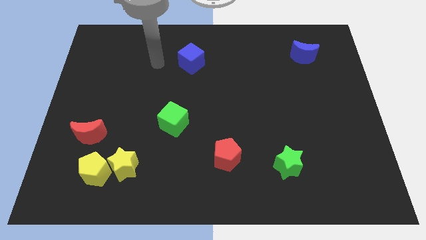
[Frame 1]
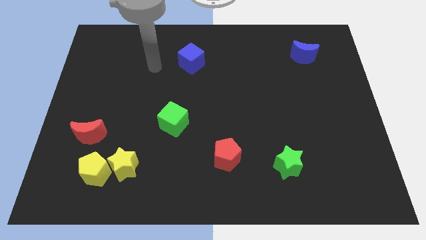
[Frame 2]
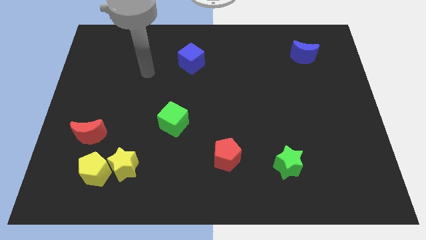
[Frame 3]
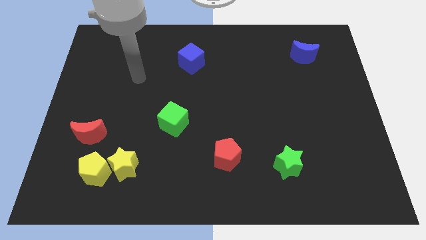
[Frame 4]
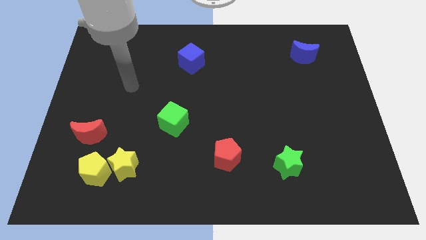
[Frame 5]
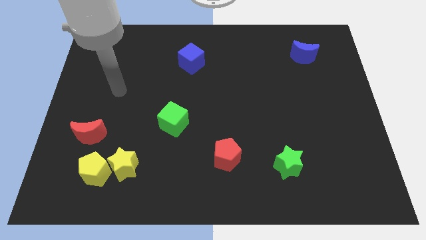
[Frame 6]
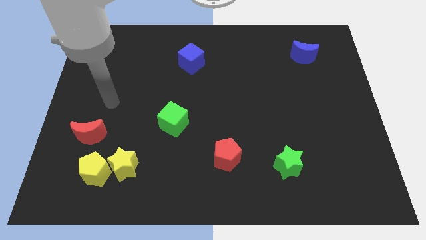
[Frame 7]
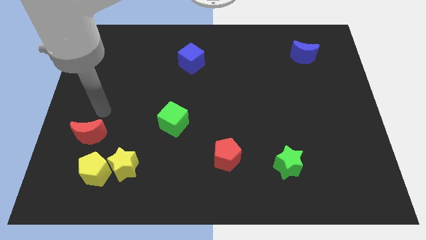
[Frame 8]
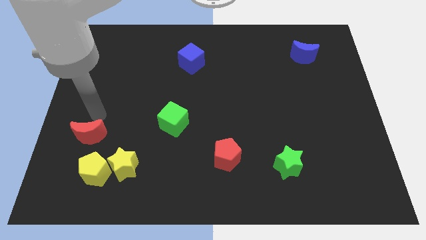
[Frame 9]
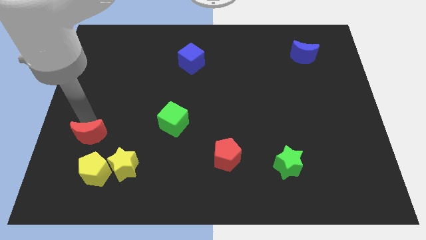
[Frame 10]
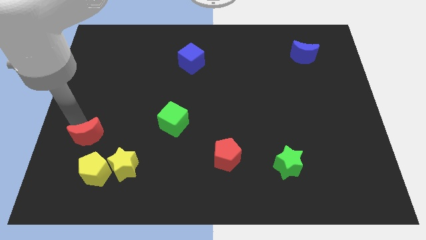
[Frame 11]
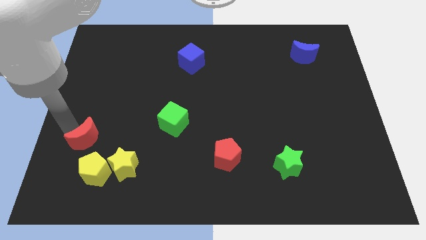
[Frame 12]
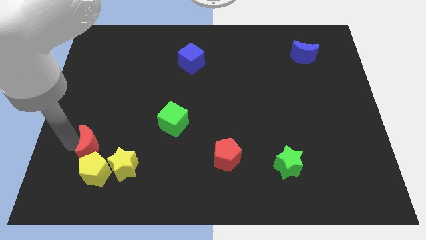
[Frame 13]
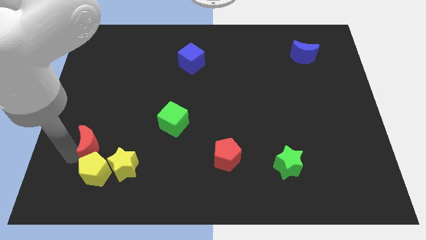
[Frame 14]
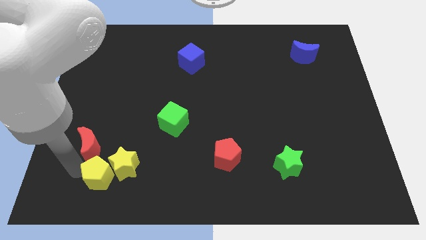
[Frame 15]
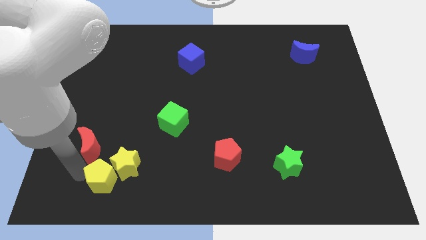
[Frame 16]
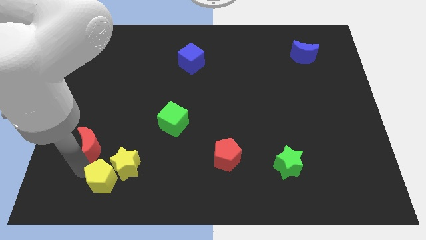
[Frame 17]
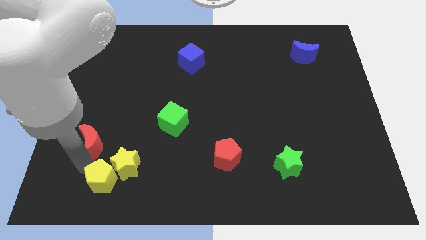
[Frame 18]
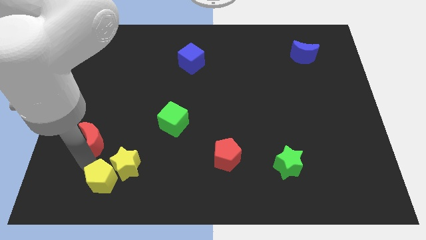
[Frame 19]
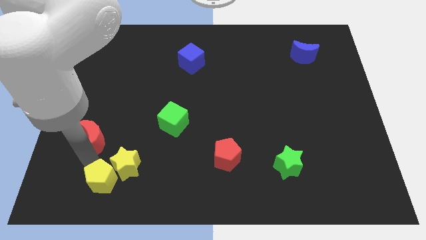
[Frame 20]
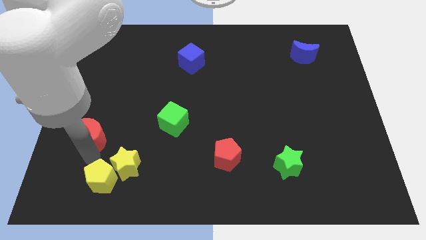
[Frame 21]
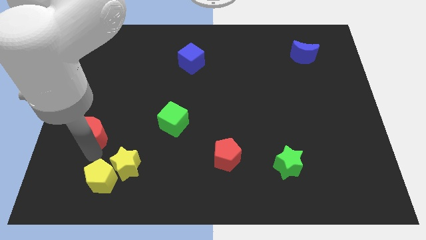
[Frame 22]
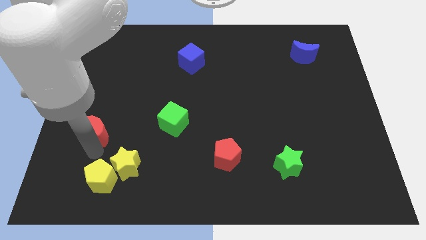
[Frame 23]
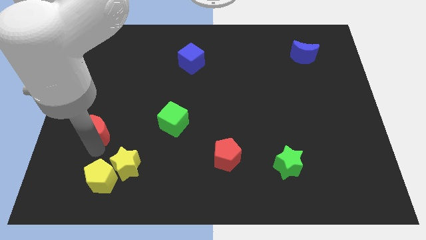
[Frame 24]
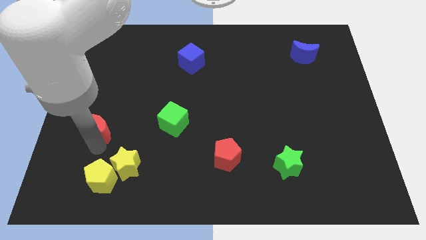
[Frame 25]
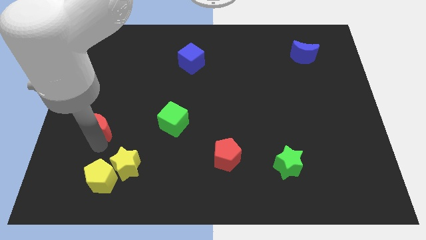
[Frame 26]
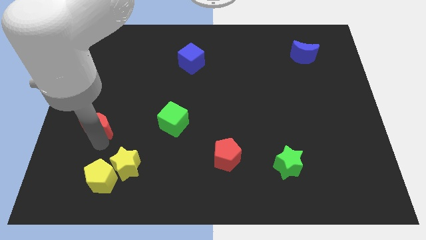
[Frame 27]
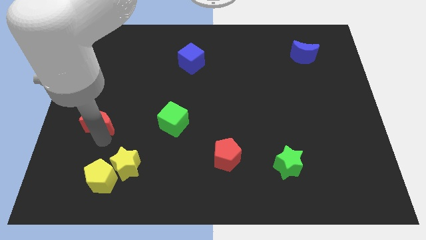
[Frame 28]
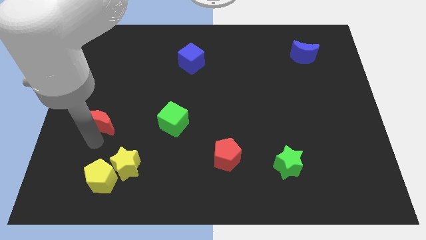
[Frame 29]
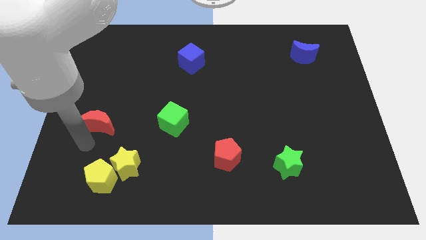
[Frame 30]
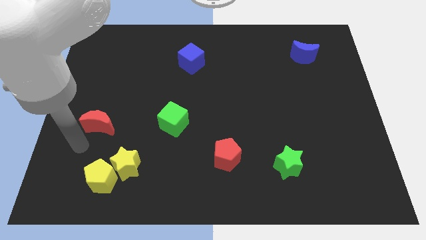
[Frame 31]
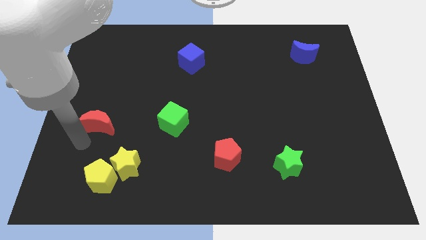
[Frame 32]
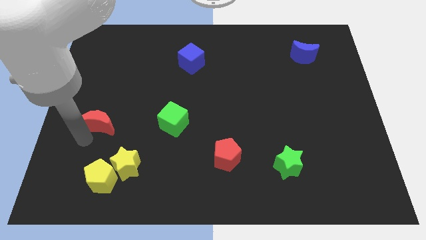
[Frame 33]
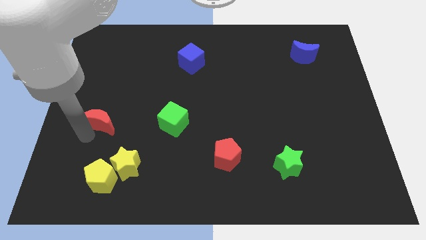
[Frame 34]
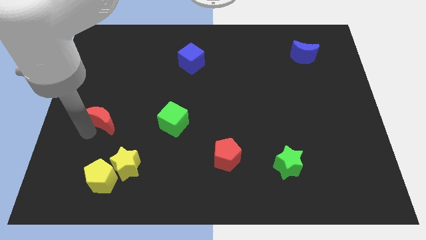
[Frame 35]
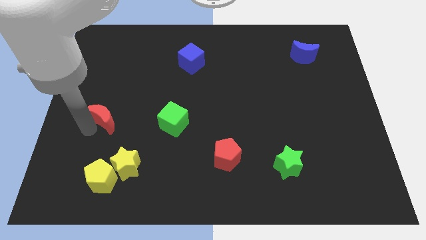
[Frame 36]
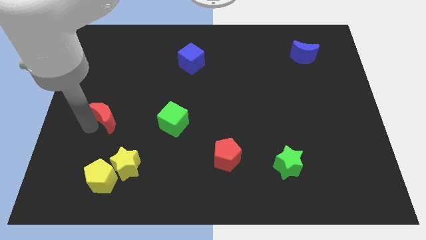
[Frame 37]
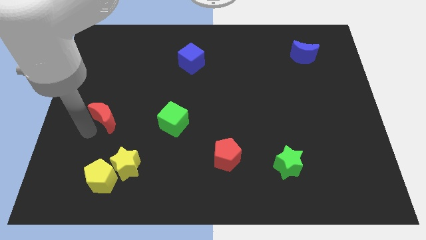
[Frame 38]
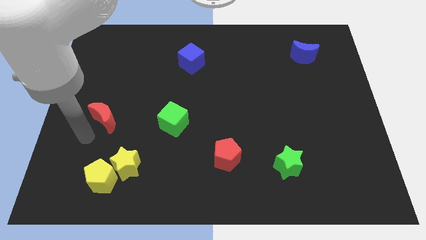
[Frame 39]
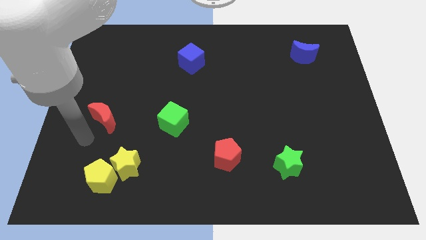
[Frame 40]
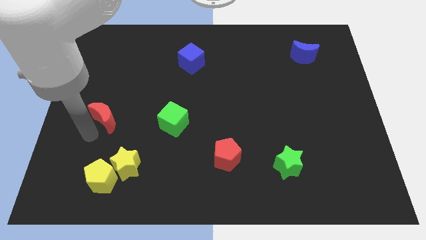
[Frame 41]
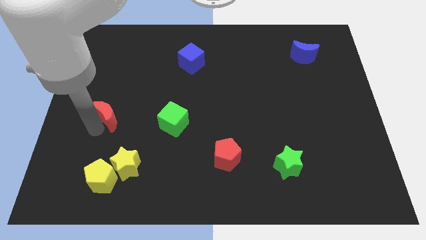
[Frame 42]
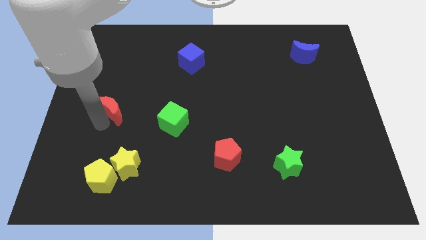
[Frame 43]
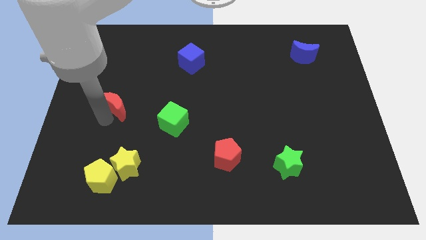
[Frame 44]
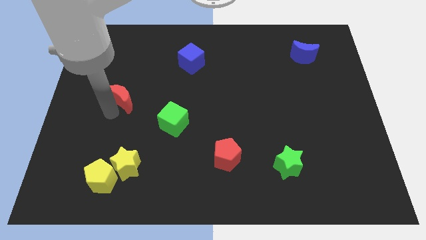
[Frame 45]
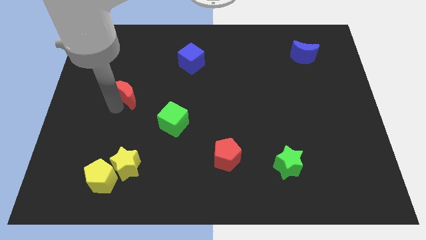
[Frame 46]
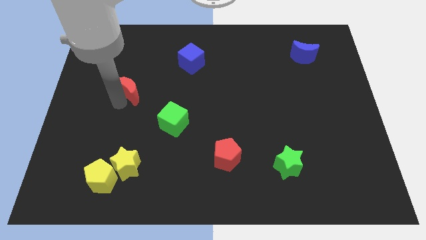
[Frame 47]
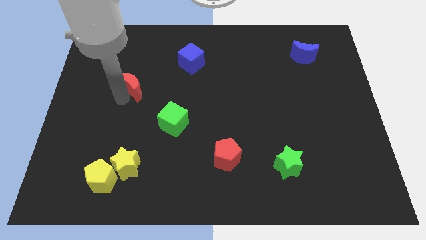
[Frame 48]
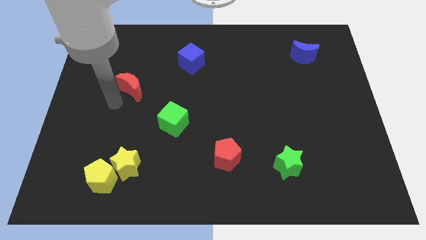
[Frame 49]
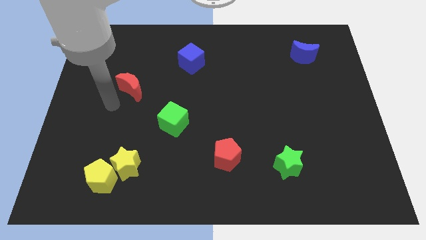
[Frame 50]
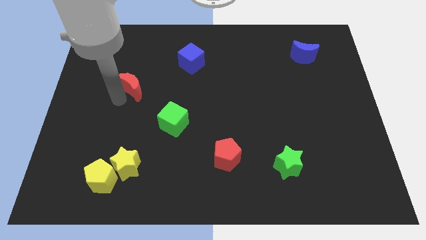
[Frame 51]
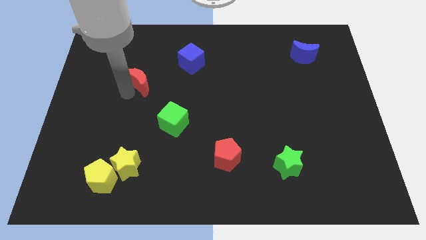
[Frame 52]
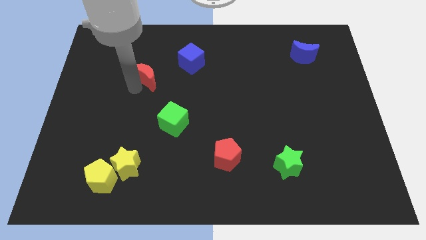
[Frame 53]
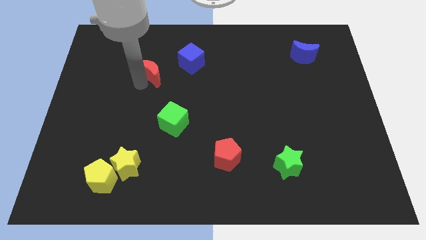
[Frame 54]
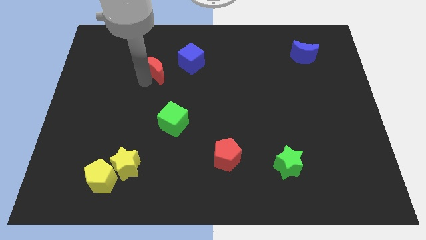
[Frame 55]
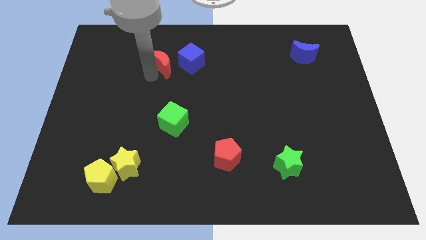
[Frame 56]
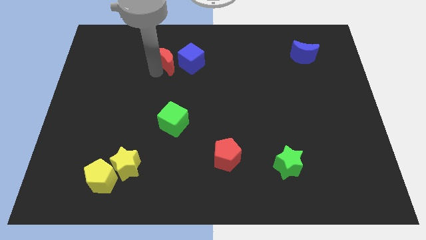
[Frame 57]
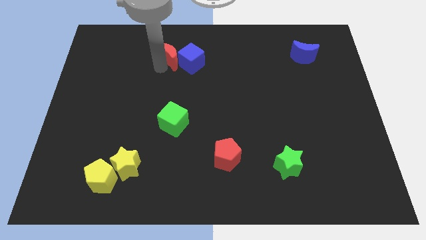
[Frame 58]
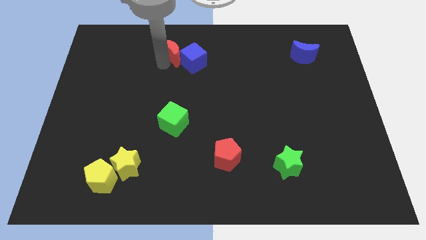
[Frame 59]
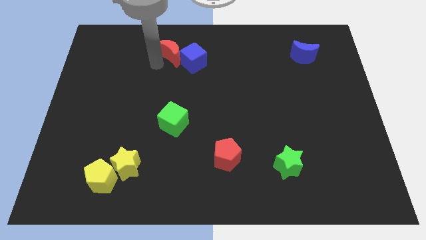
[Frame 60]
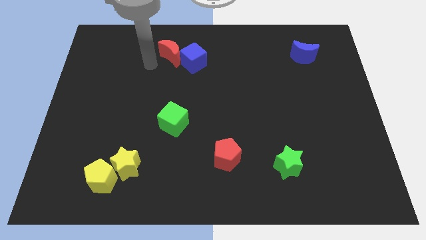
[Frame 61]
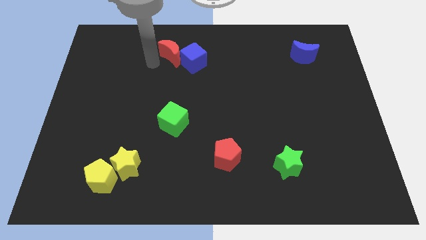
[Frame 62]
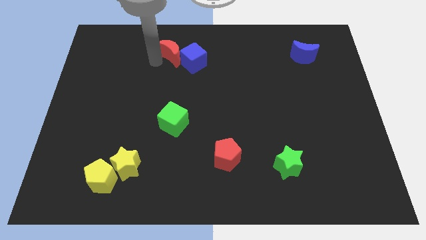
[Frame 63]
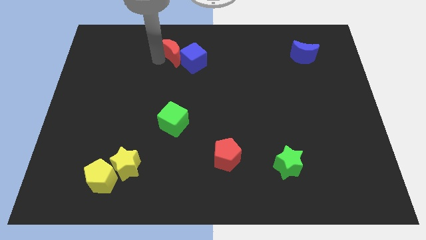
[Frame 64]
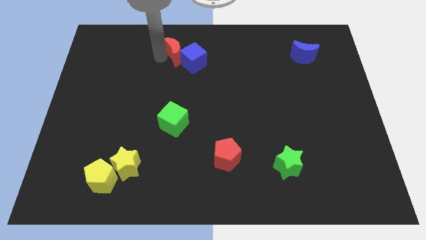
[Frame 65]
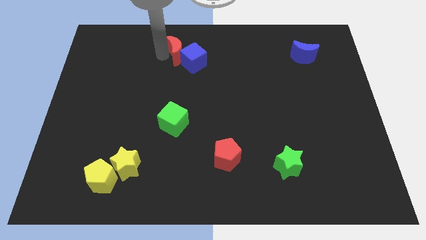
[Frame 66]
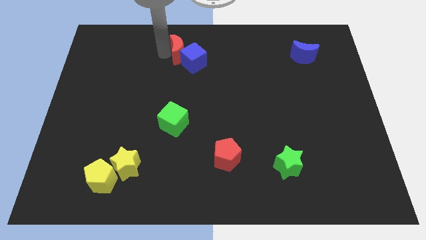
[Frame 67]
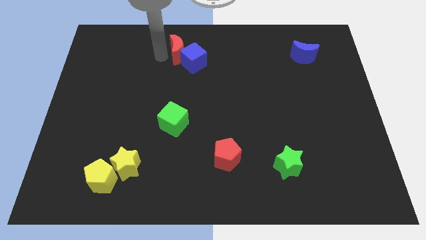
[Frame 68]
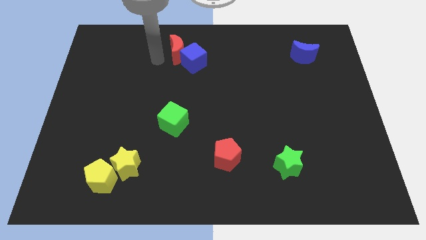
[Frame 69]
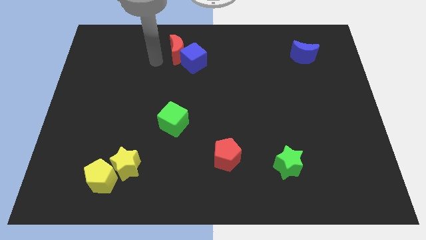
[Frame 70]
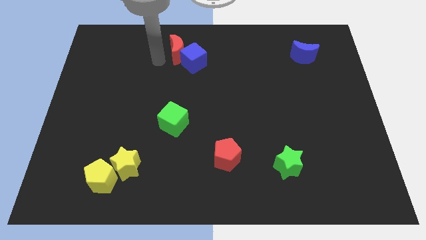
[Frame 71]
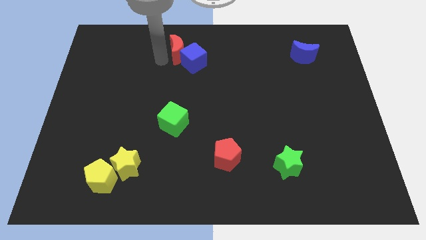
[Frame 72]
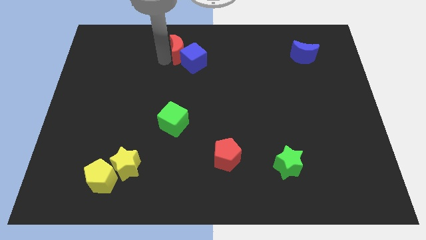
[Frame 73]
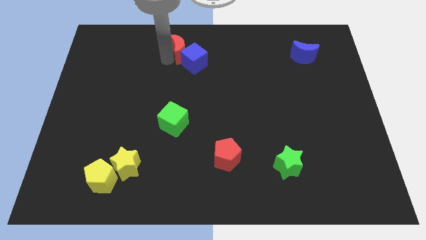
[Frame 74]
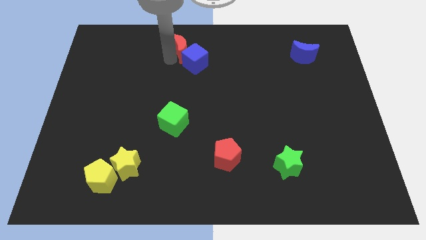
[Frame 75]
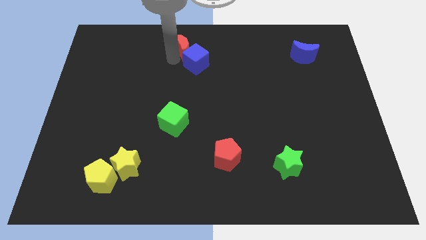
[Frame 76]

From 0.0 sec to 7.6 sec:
slide the red moon to the top
